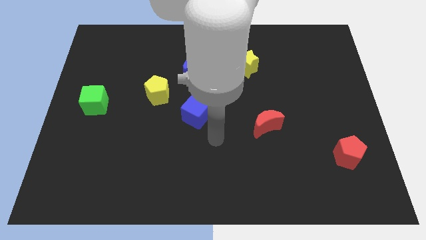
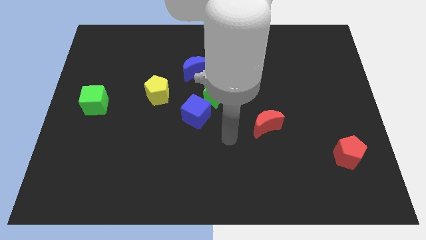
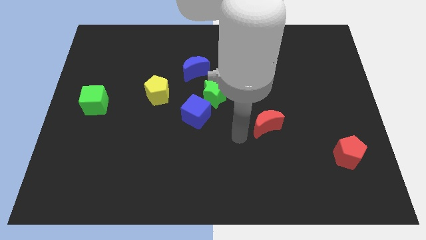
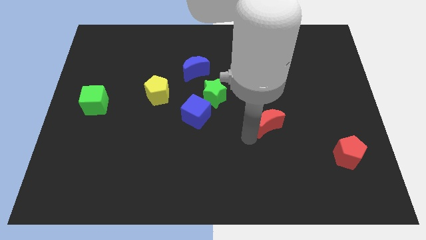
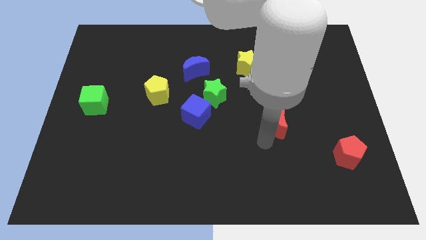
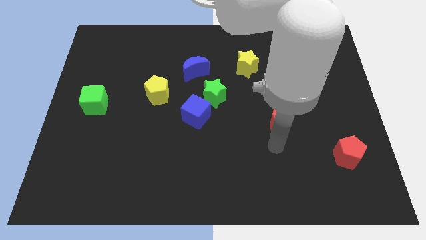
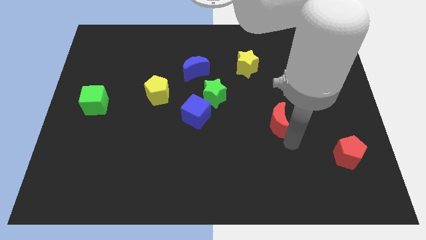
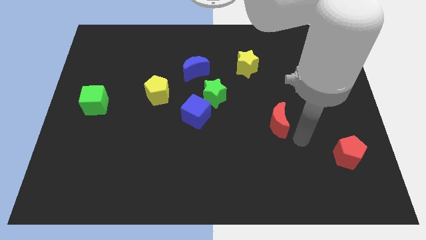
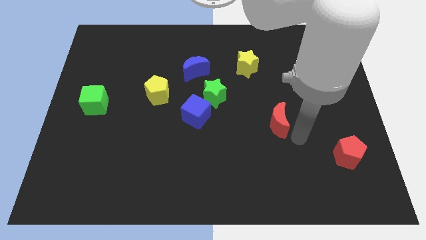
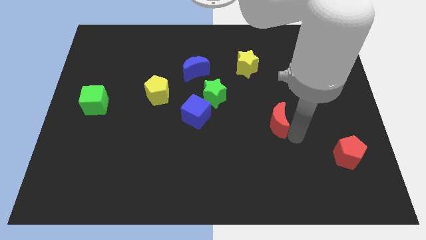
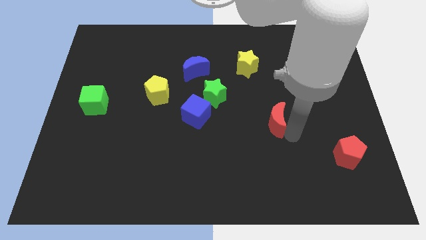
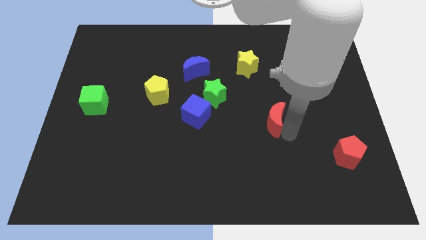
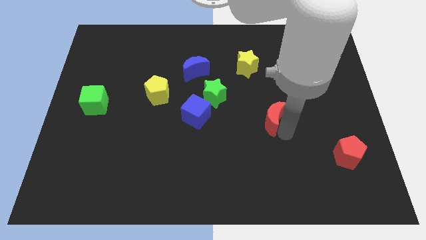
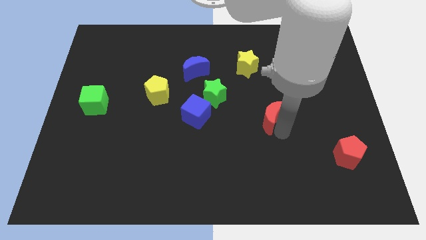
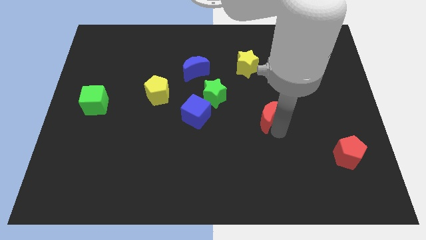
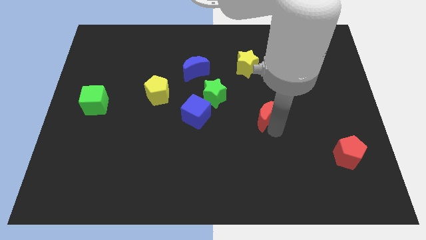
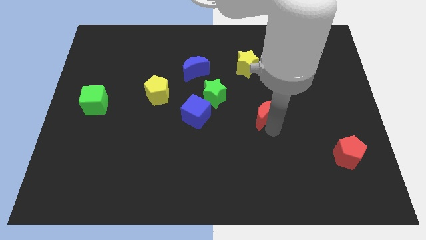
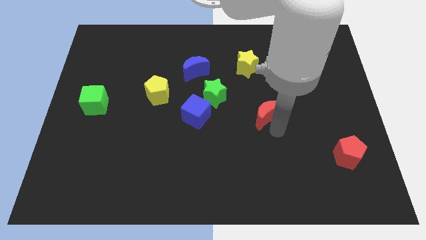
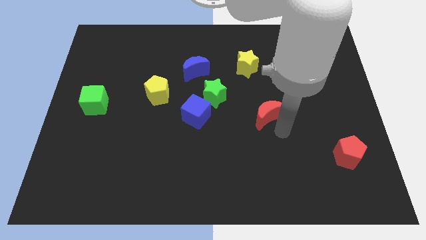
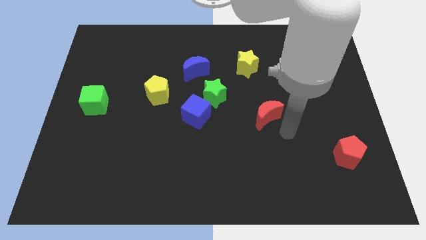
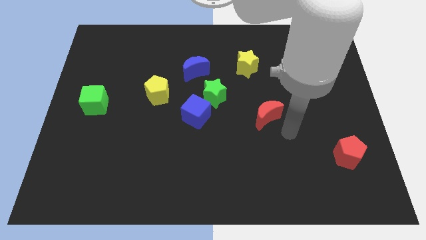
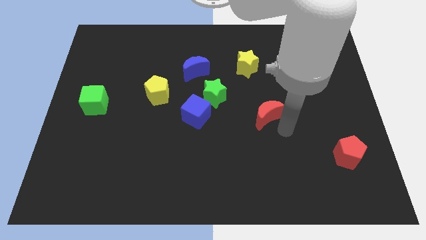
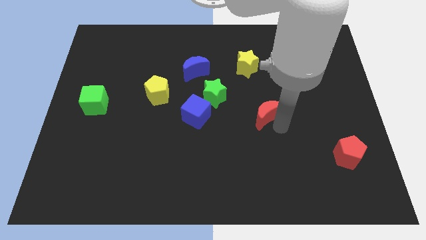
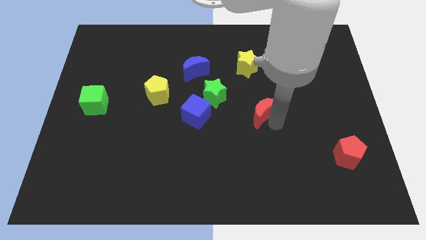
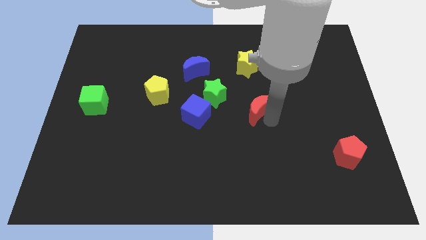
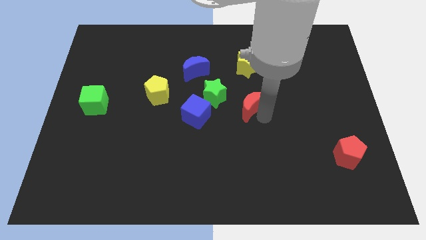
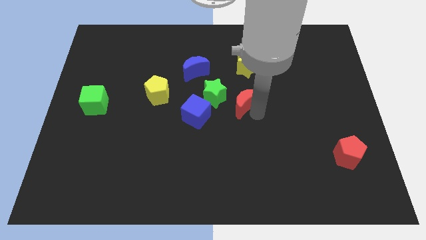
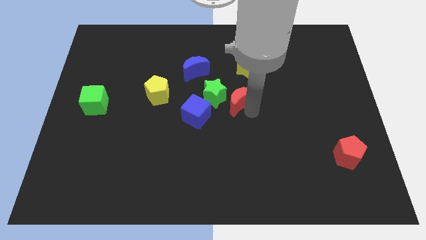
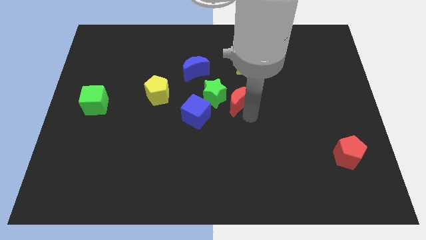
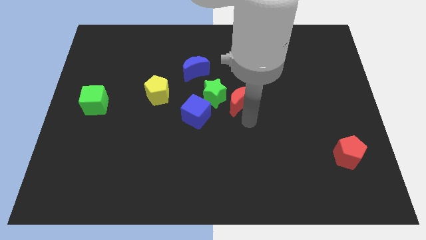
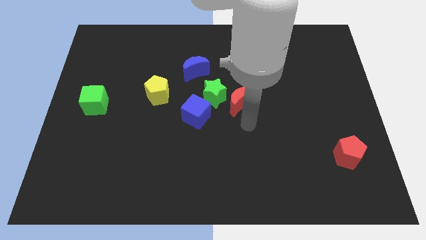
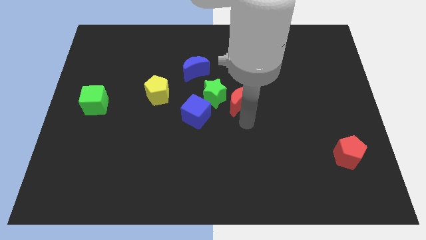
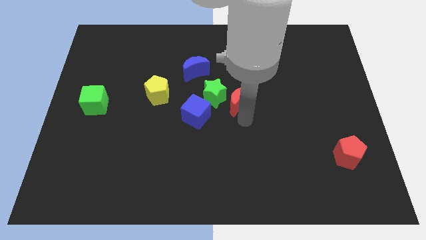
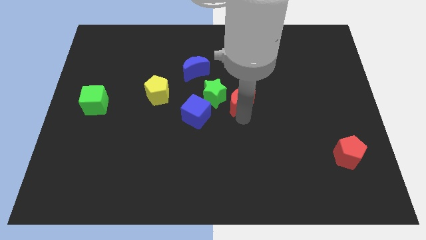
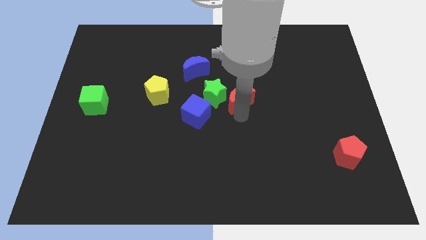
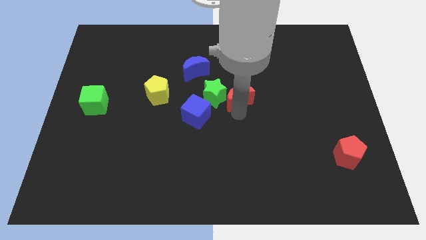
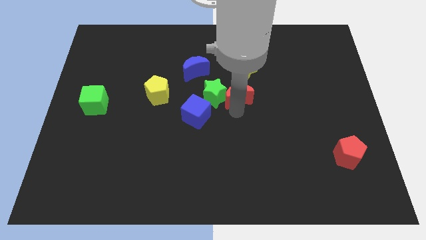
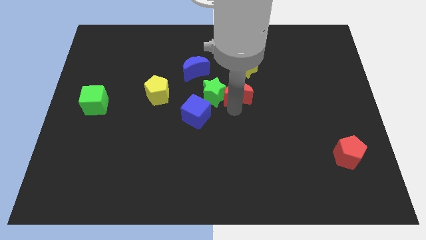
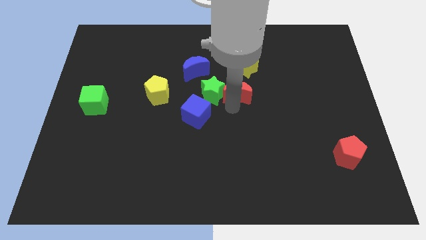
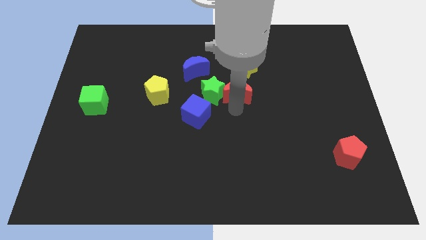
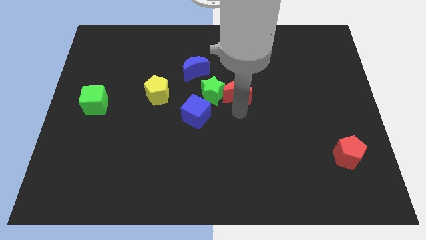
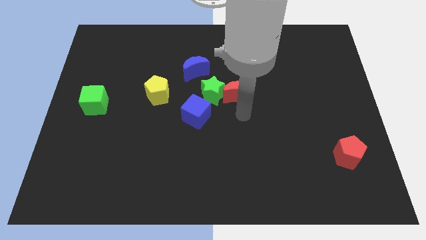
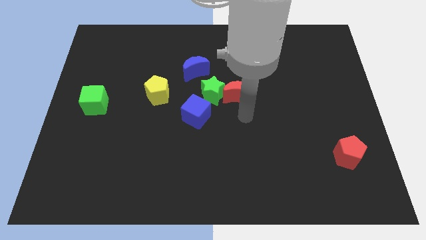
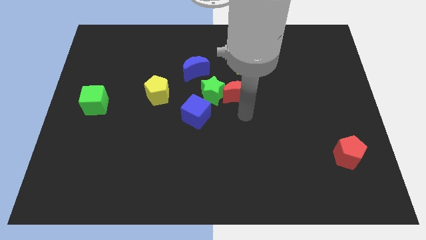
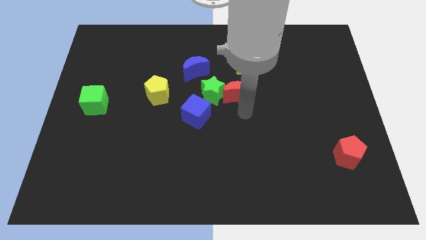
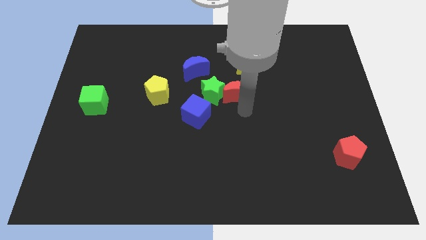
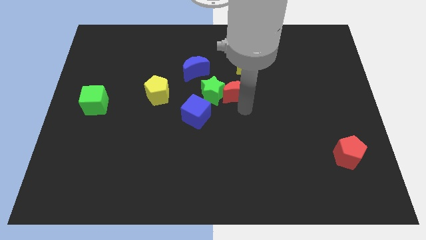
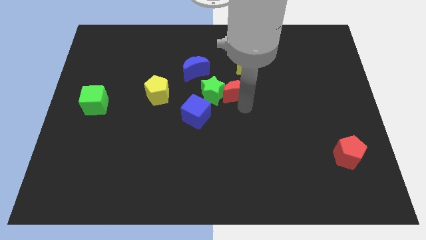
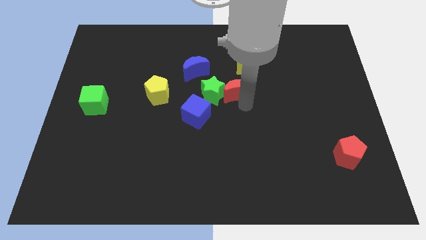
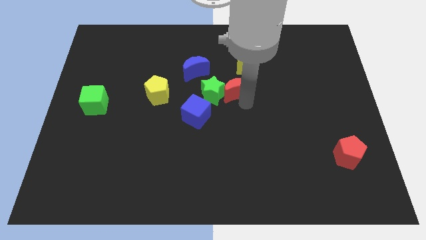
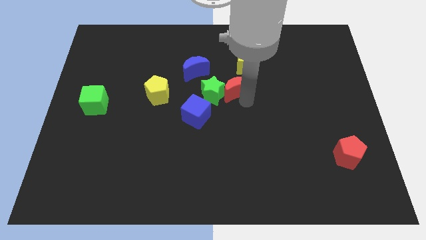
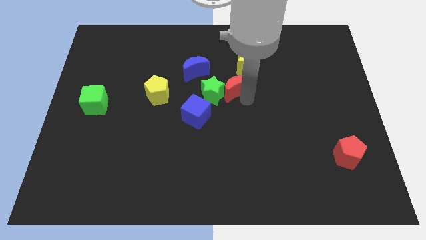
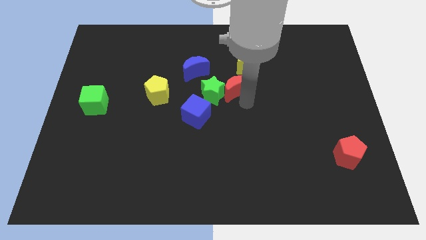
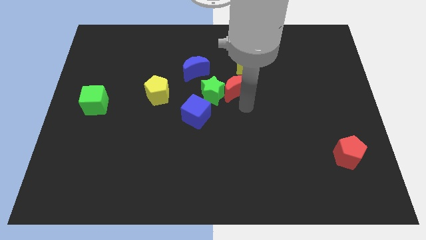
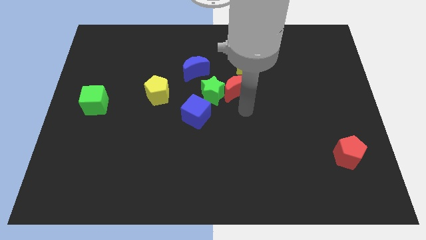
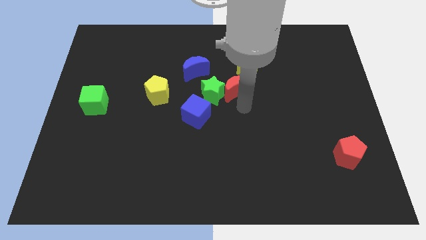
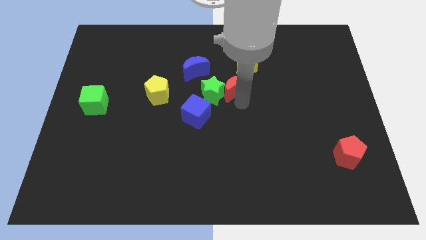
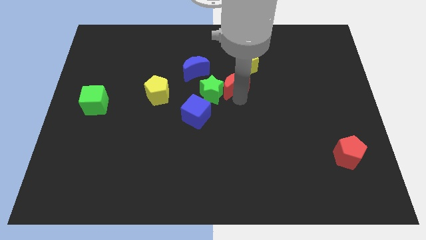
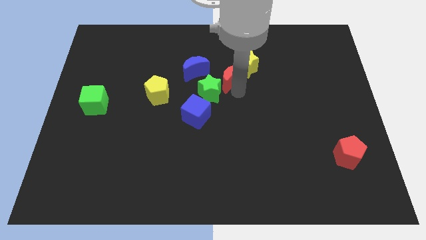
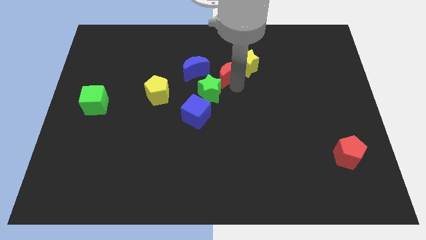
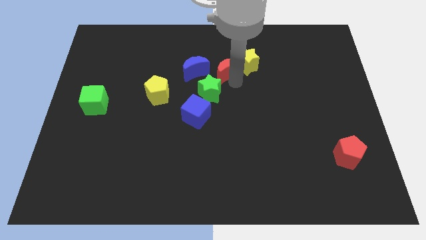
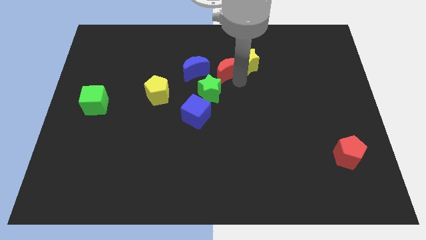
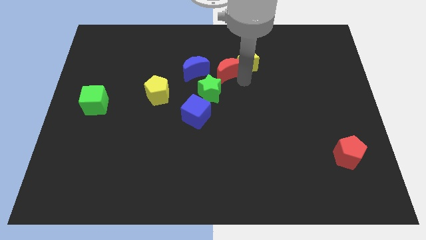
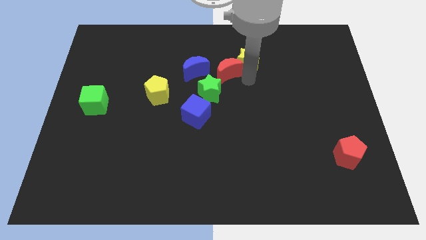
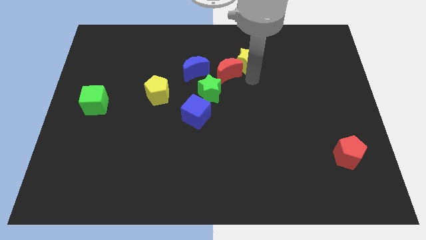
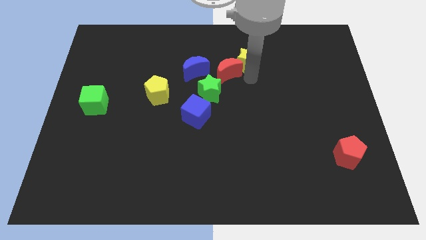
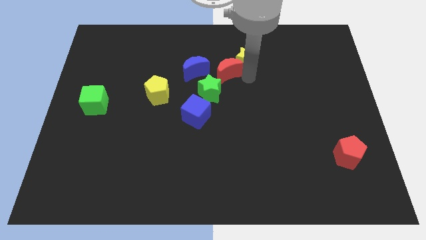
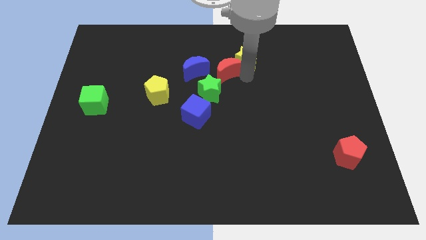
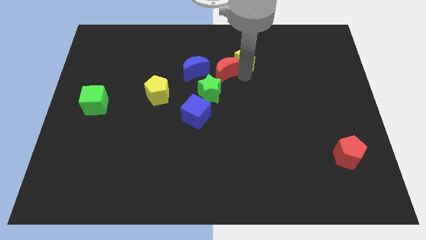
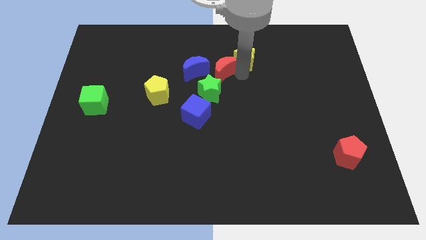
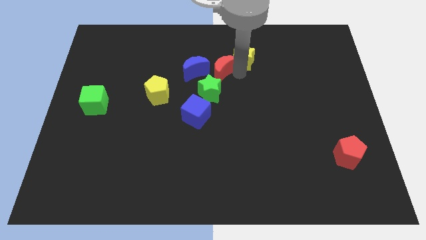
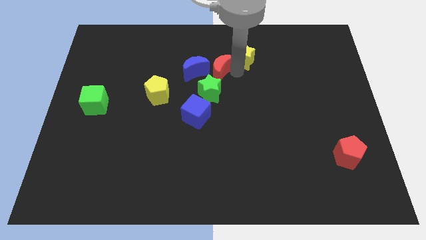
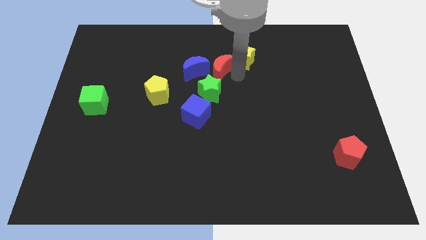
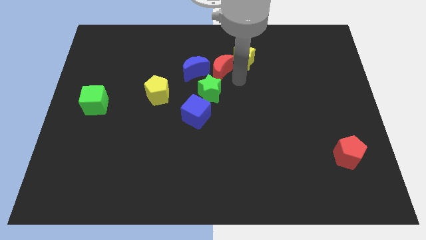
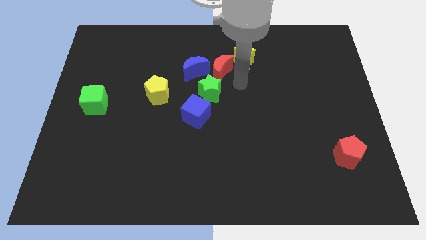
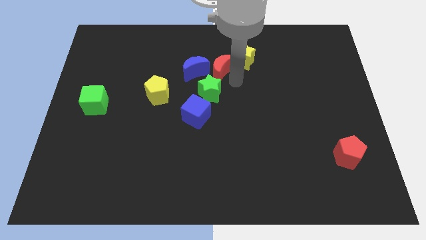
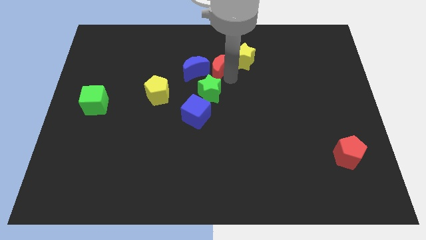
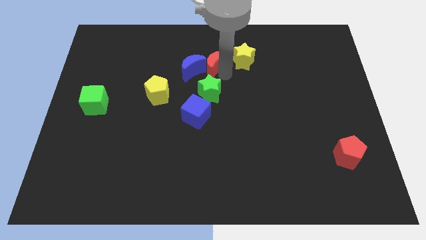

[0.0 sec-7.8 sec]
move the red moon up and to the left
